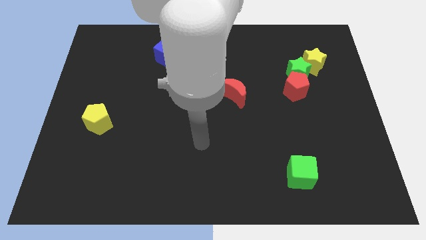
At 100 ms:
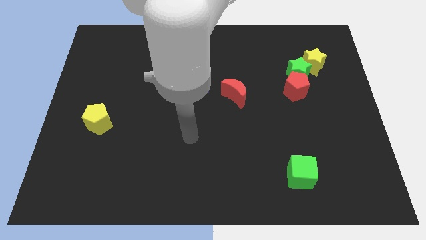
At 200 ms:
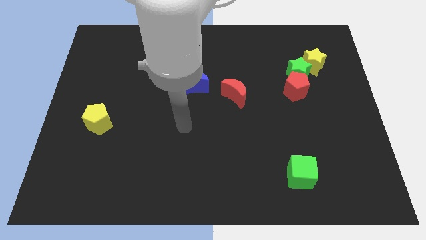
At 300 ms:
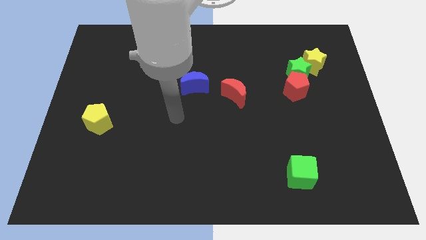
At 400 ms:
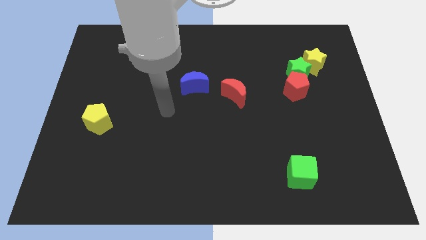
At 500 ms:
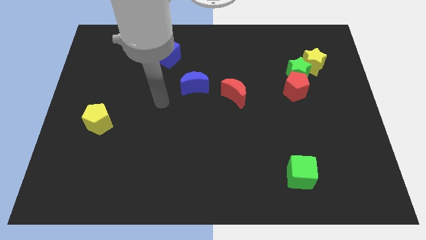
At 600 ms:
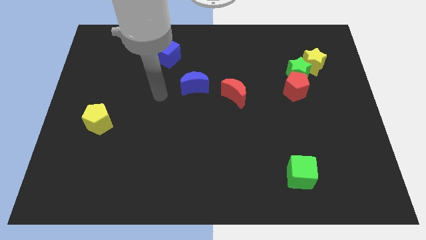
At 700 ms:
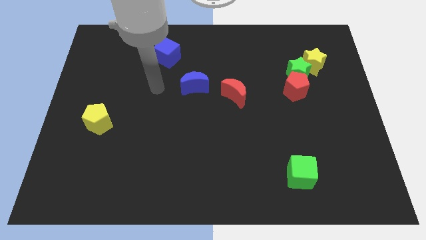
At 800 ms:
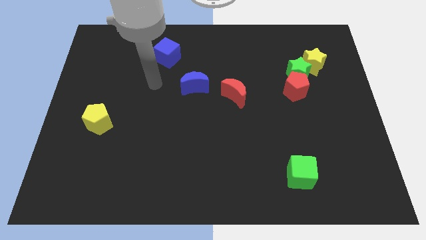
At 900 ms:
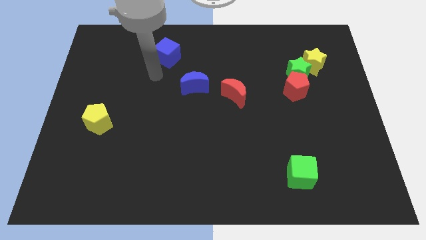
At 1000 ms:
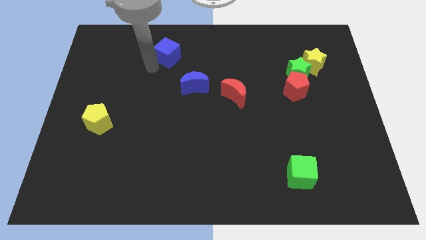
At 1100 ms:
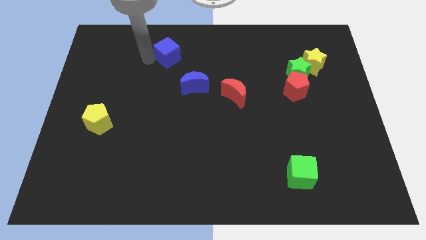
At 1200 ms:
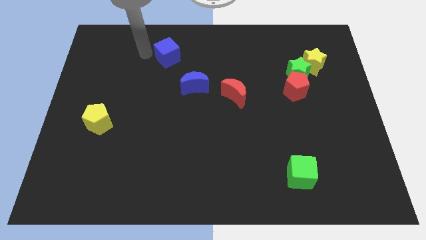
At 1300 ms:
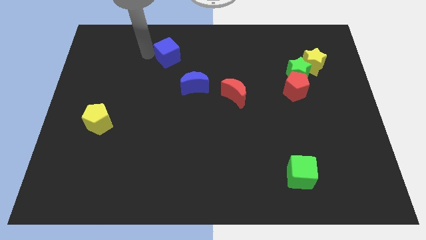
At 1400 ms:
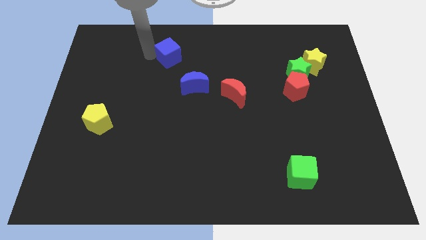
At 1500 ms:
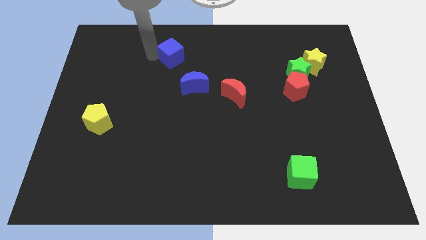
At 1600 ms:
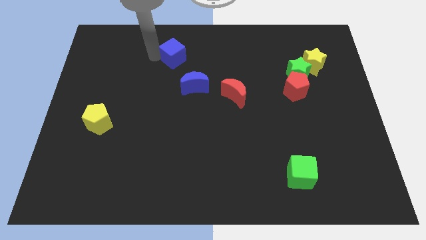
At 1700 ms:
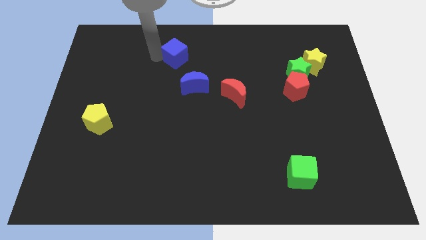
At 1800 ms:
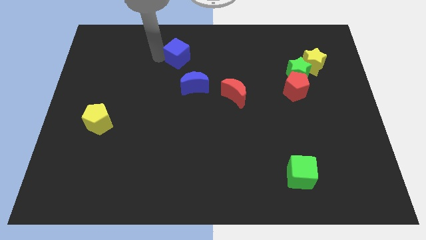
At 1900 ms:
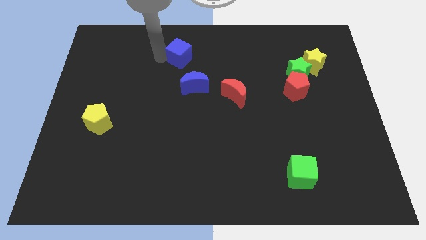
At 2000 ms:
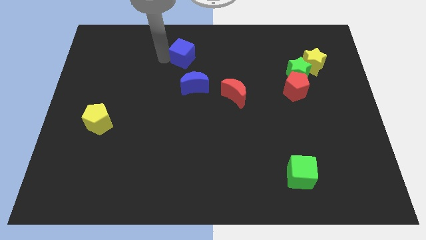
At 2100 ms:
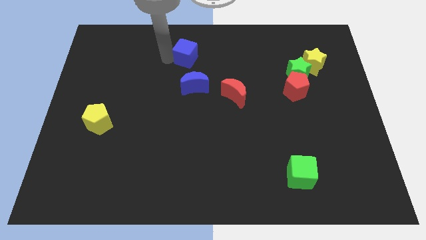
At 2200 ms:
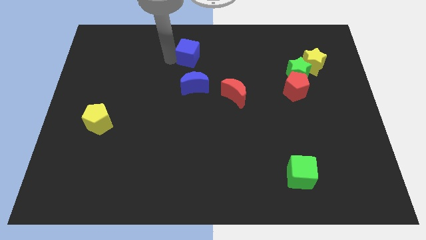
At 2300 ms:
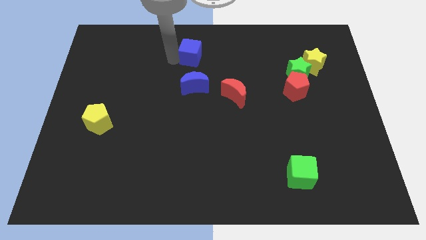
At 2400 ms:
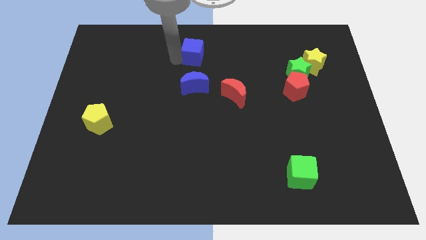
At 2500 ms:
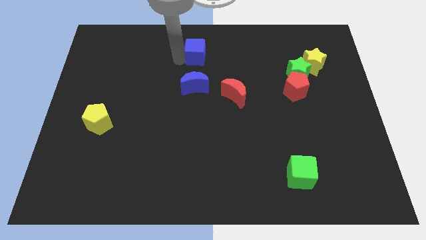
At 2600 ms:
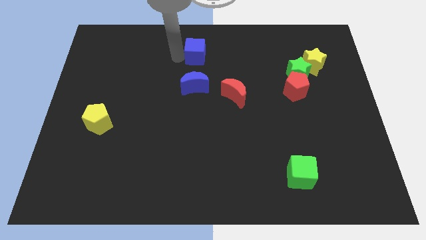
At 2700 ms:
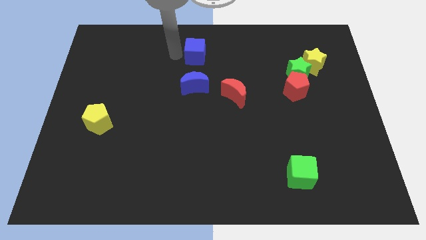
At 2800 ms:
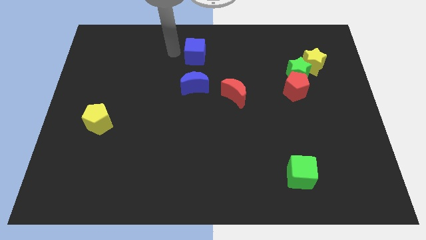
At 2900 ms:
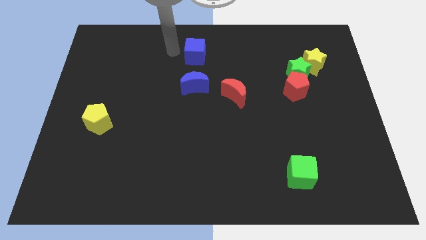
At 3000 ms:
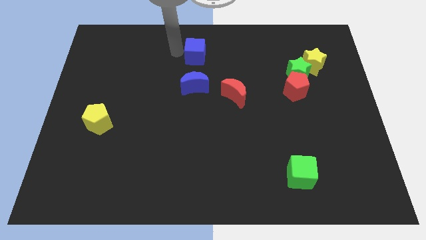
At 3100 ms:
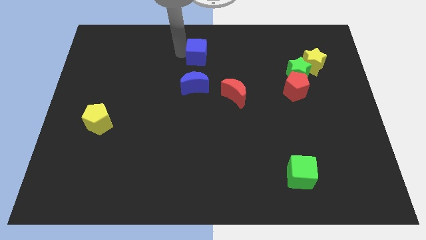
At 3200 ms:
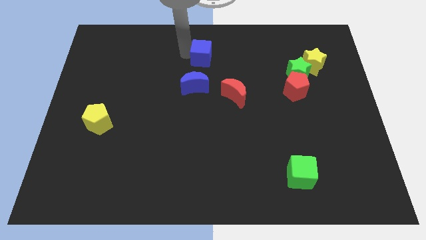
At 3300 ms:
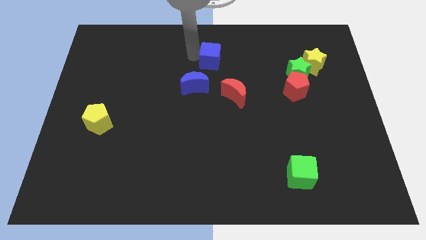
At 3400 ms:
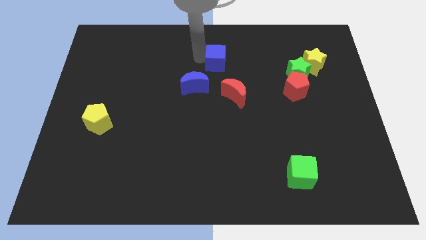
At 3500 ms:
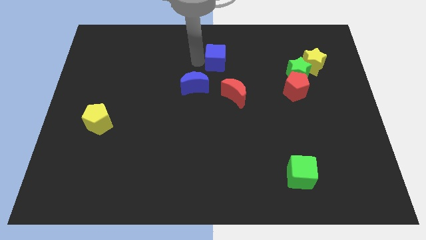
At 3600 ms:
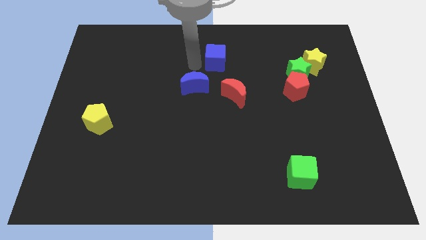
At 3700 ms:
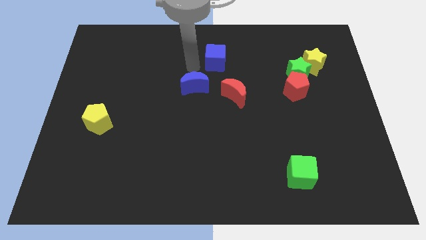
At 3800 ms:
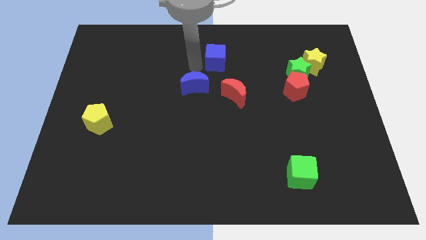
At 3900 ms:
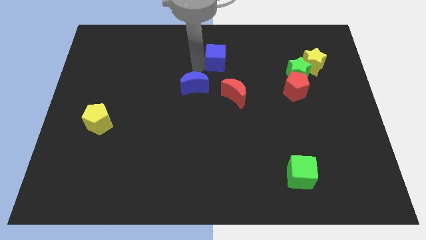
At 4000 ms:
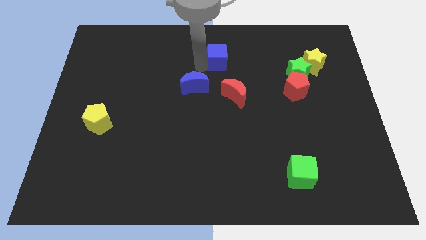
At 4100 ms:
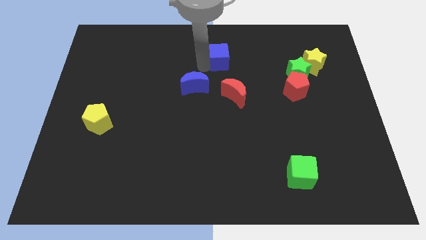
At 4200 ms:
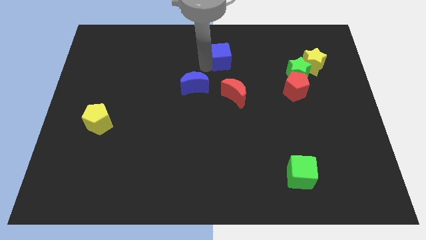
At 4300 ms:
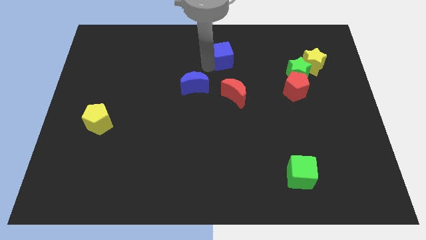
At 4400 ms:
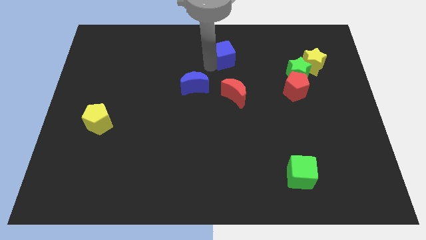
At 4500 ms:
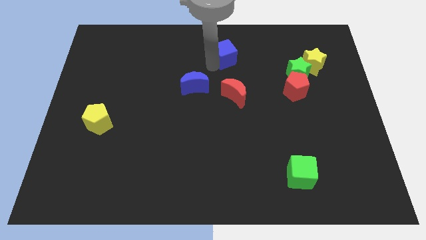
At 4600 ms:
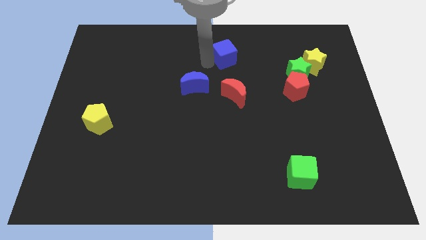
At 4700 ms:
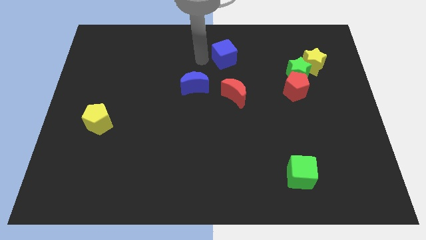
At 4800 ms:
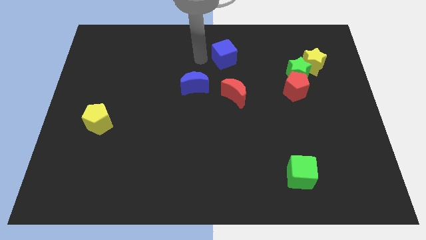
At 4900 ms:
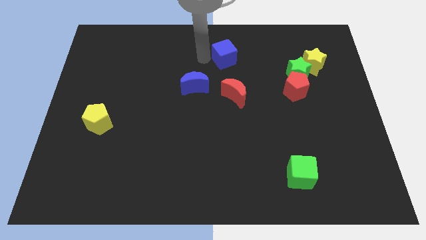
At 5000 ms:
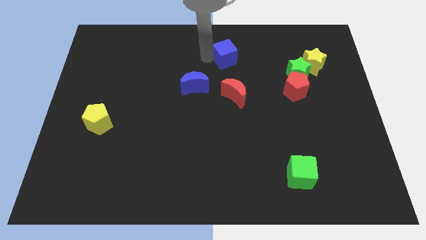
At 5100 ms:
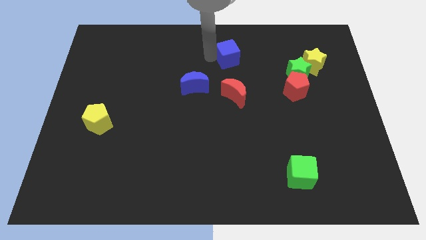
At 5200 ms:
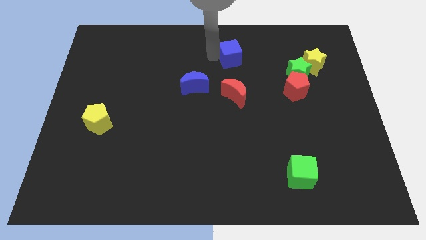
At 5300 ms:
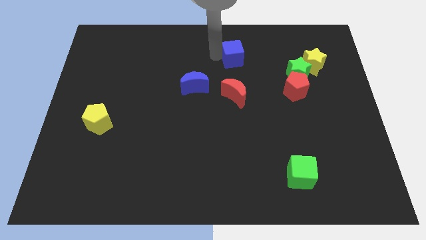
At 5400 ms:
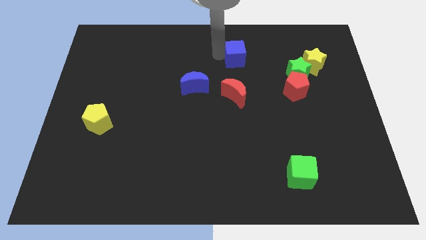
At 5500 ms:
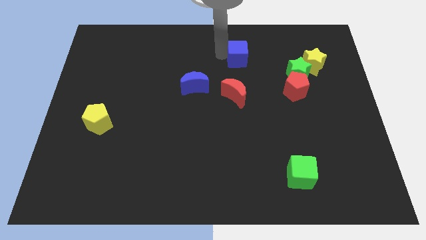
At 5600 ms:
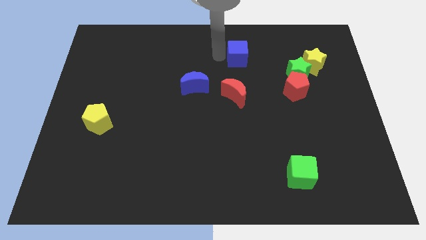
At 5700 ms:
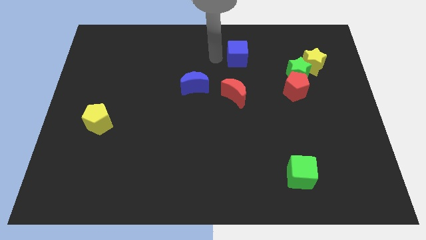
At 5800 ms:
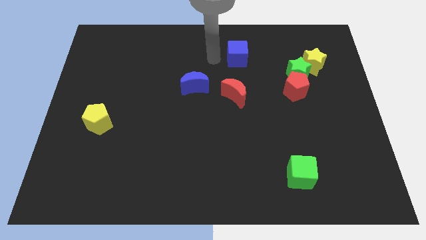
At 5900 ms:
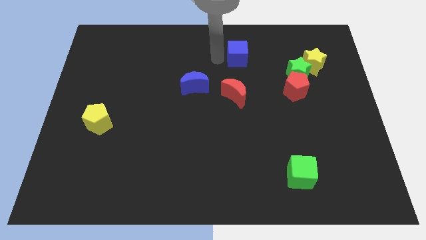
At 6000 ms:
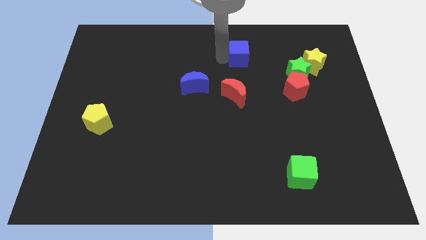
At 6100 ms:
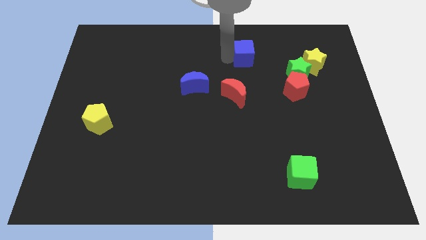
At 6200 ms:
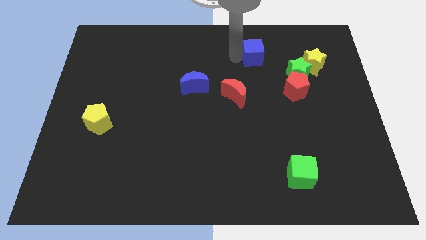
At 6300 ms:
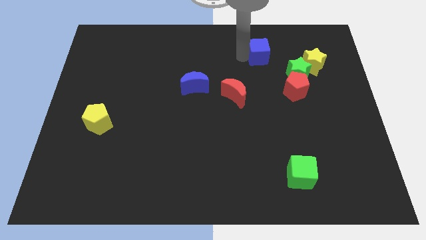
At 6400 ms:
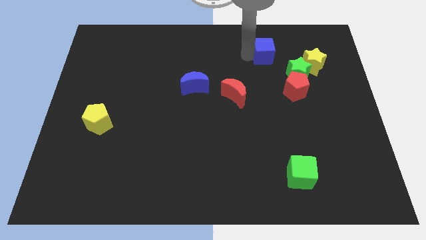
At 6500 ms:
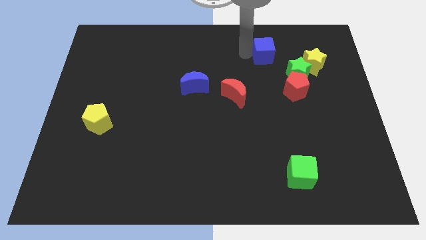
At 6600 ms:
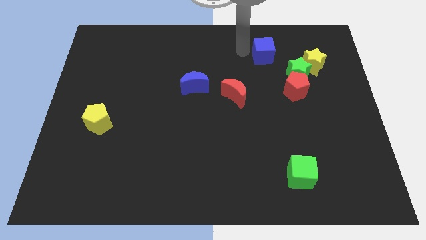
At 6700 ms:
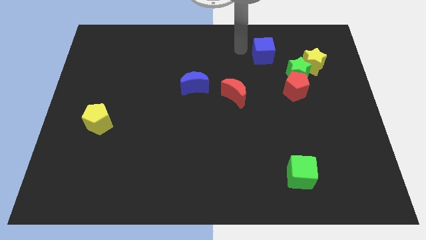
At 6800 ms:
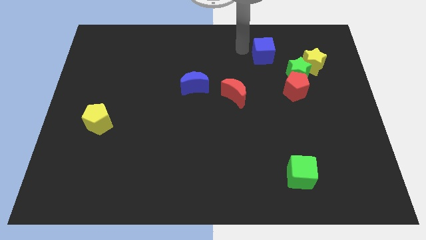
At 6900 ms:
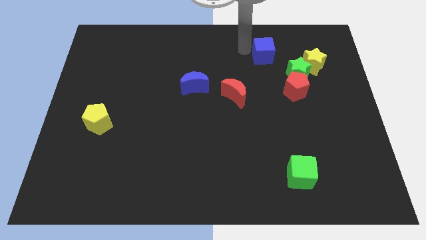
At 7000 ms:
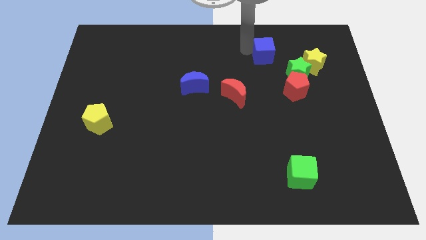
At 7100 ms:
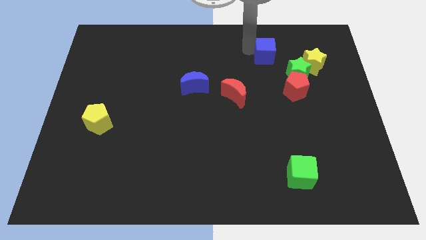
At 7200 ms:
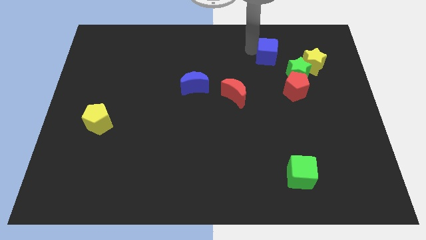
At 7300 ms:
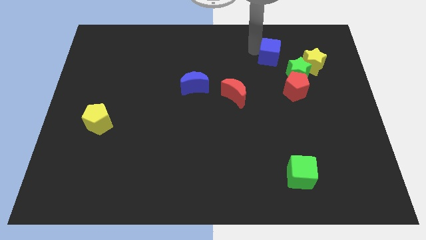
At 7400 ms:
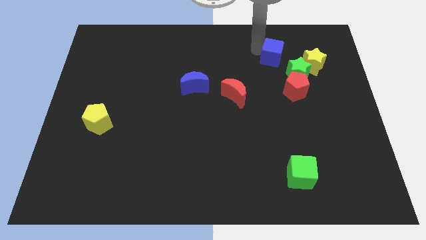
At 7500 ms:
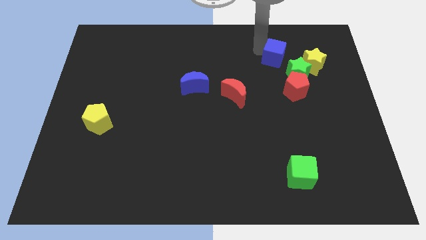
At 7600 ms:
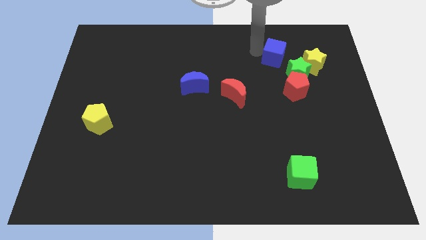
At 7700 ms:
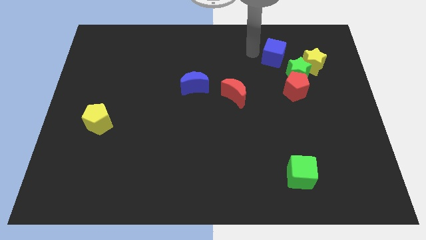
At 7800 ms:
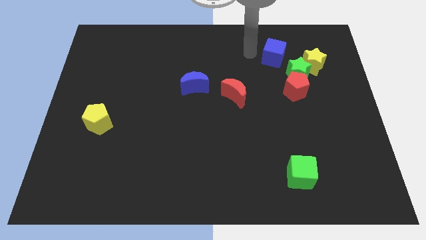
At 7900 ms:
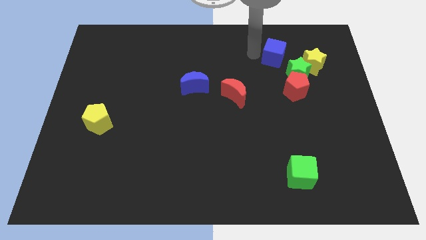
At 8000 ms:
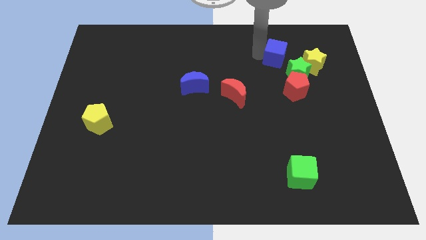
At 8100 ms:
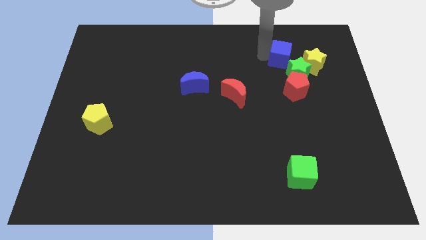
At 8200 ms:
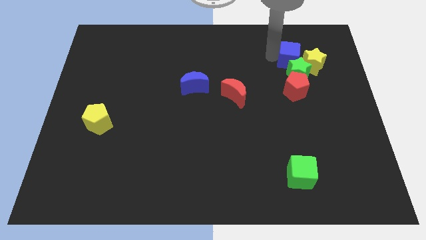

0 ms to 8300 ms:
push the blue cube next to the yellow star
